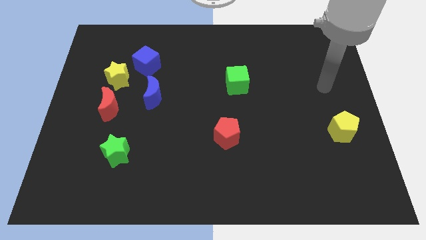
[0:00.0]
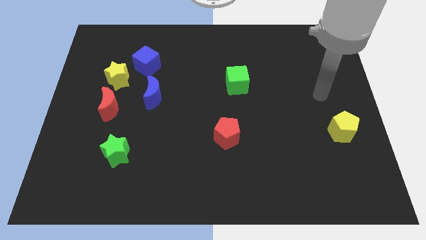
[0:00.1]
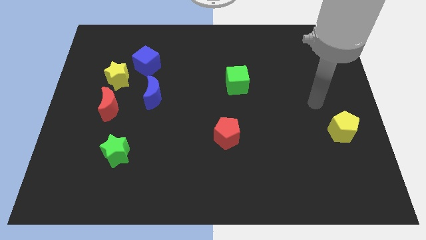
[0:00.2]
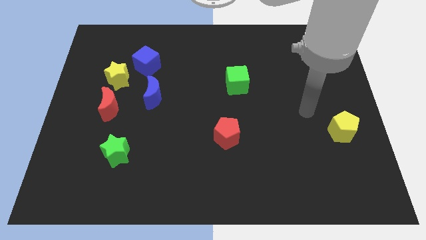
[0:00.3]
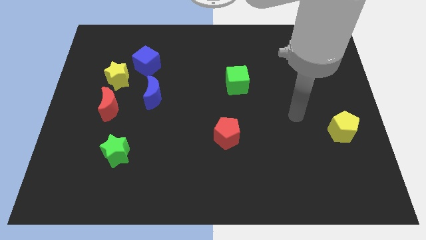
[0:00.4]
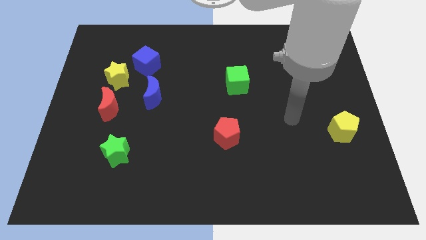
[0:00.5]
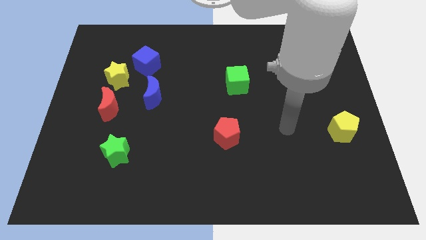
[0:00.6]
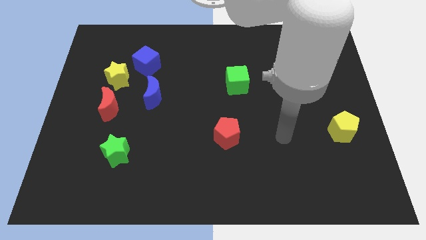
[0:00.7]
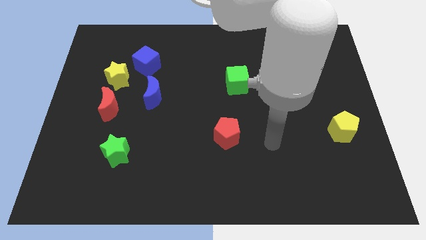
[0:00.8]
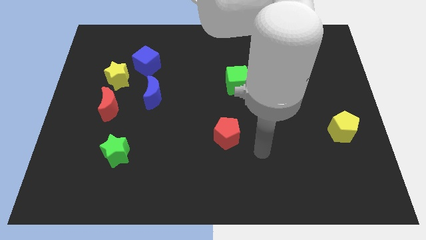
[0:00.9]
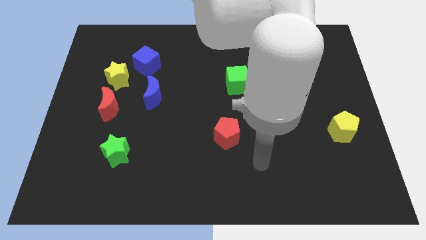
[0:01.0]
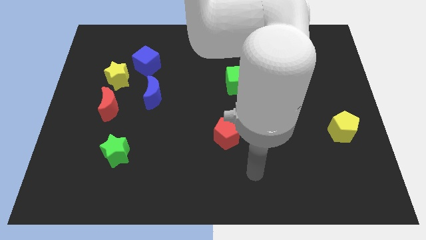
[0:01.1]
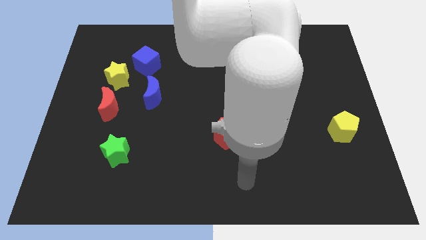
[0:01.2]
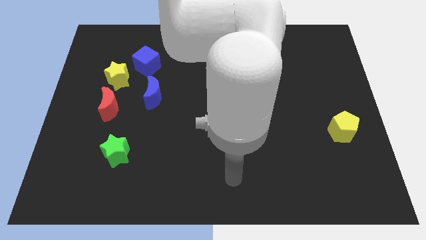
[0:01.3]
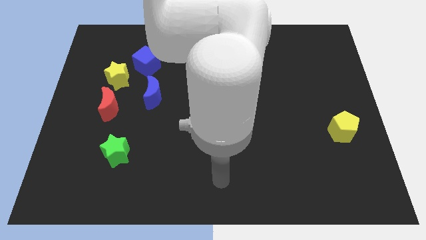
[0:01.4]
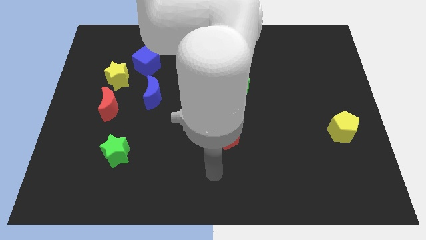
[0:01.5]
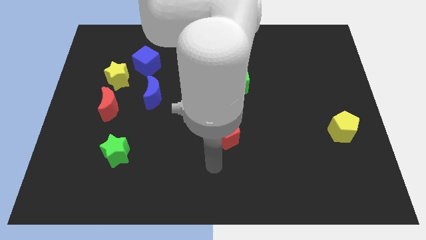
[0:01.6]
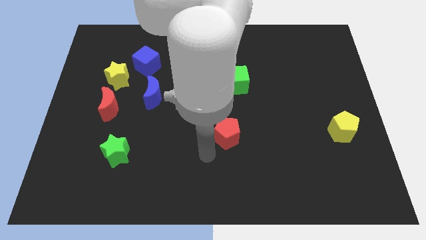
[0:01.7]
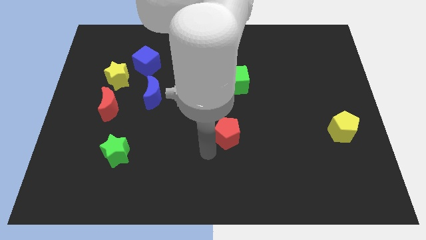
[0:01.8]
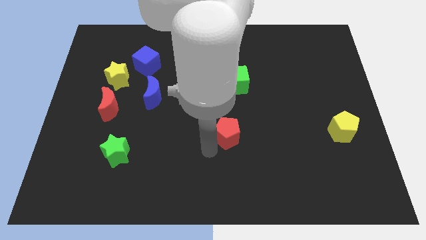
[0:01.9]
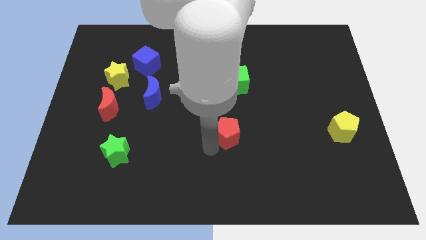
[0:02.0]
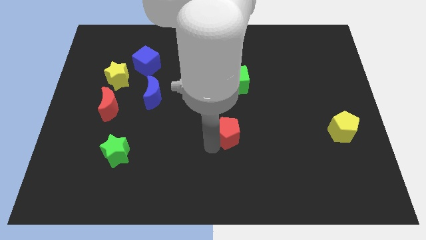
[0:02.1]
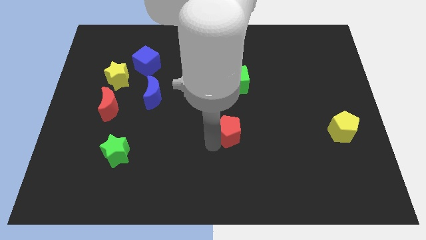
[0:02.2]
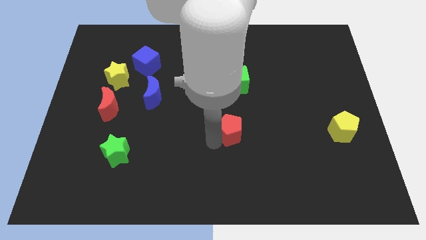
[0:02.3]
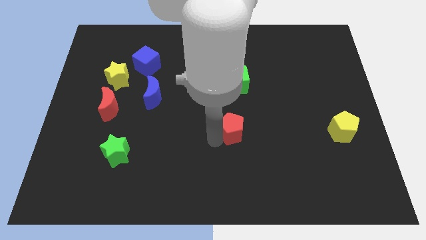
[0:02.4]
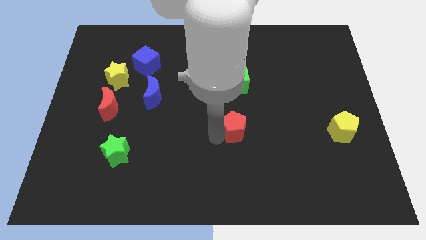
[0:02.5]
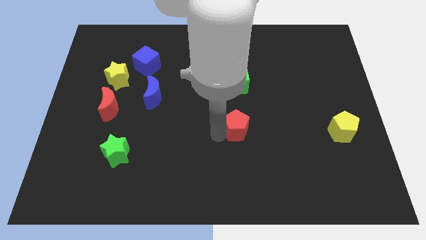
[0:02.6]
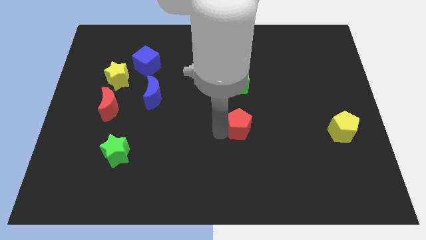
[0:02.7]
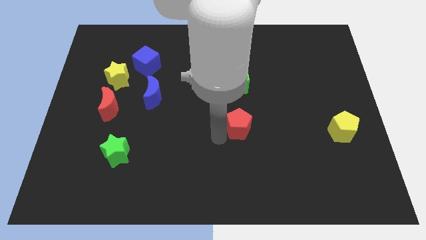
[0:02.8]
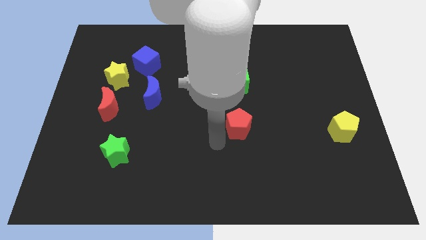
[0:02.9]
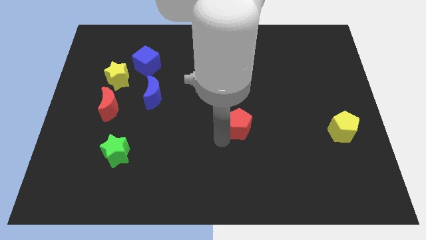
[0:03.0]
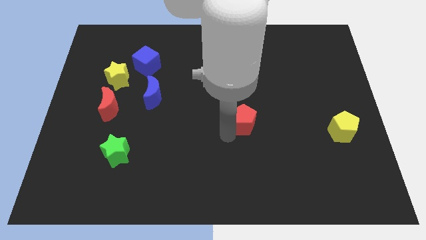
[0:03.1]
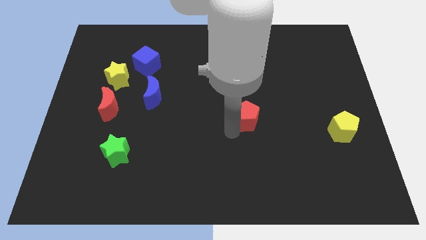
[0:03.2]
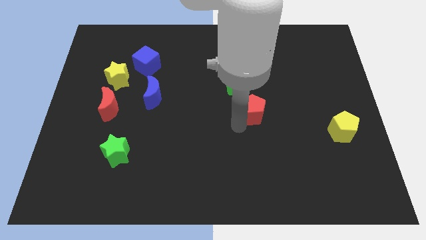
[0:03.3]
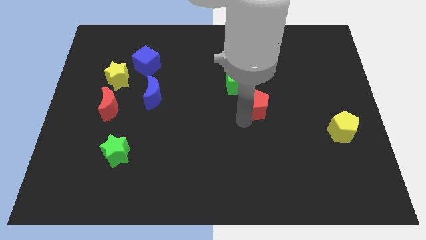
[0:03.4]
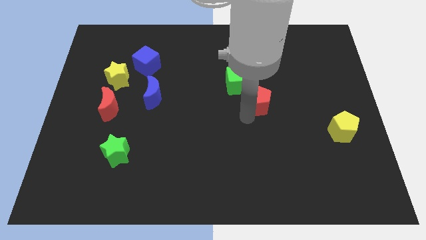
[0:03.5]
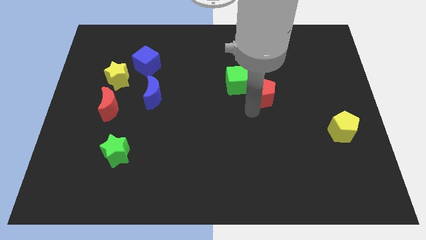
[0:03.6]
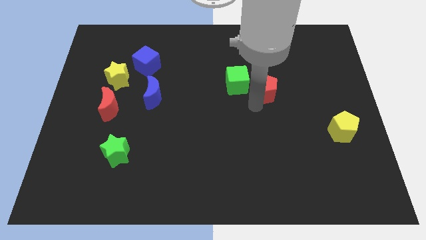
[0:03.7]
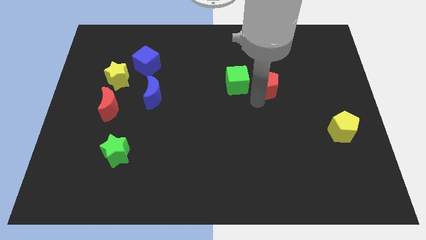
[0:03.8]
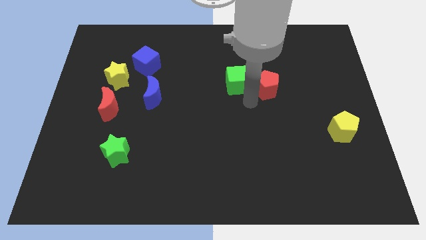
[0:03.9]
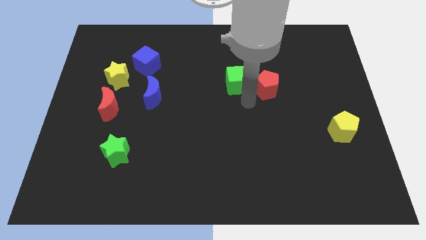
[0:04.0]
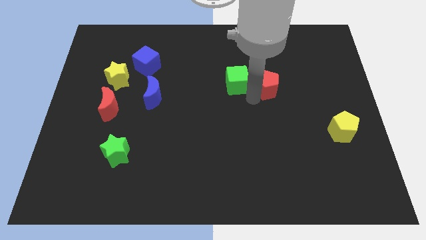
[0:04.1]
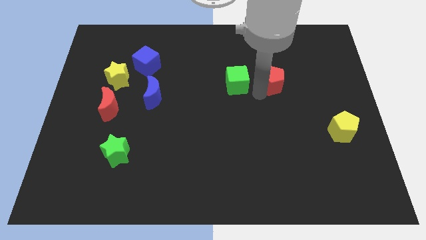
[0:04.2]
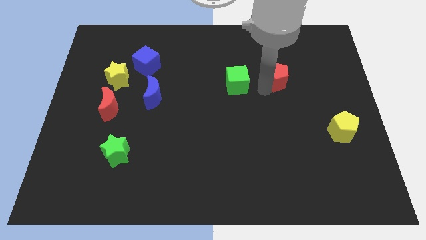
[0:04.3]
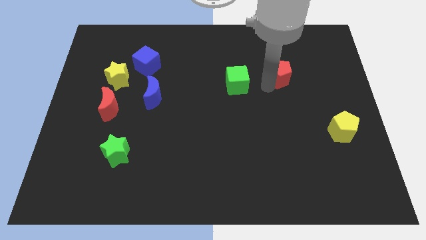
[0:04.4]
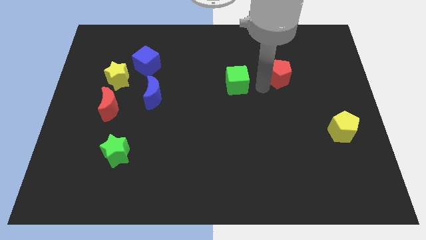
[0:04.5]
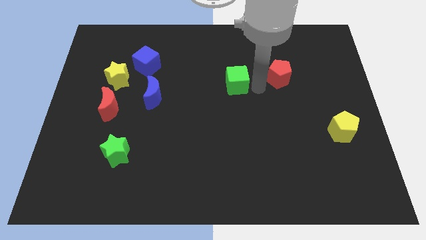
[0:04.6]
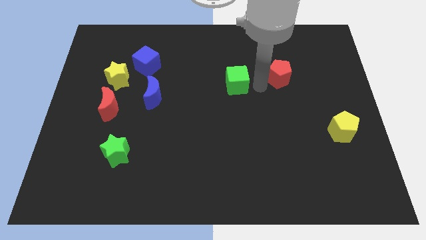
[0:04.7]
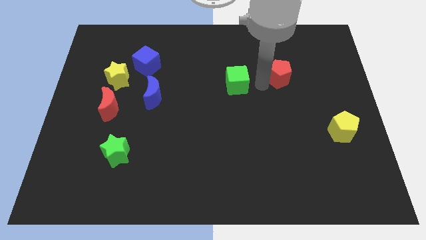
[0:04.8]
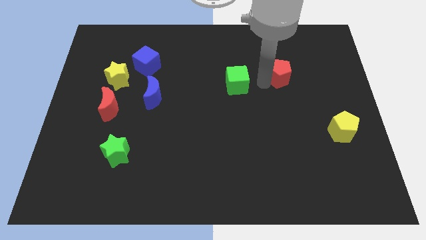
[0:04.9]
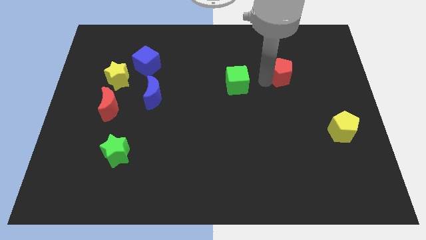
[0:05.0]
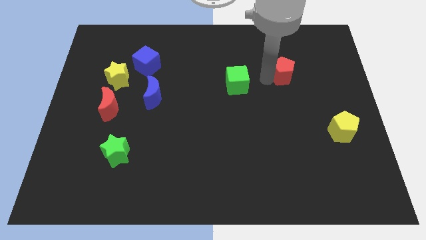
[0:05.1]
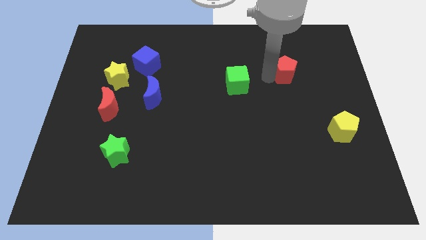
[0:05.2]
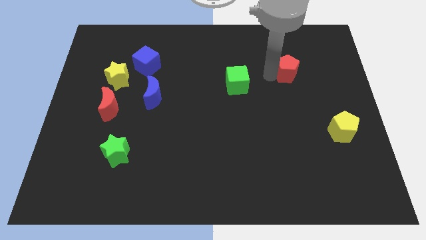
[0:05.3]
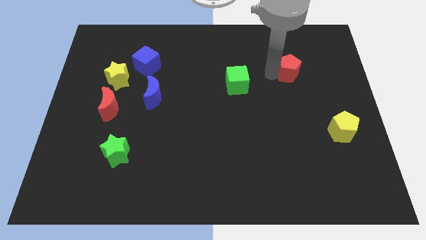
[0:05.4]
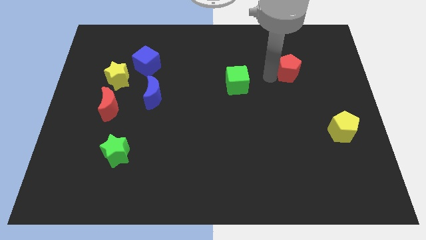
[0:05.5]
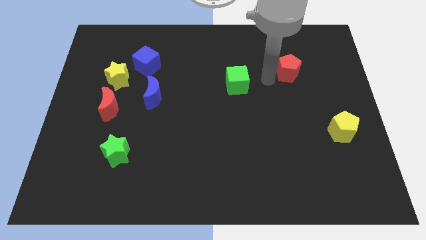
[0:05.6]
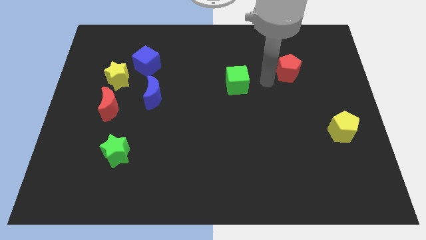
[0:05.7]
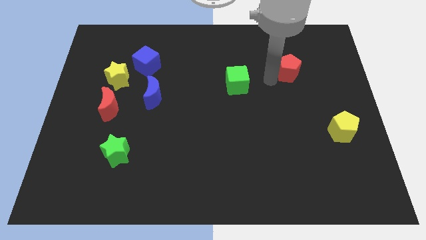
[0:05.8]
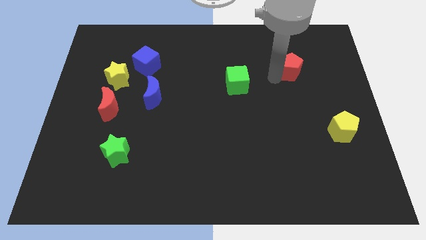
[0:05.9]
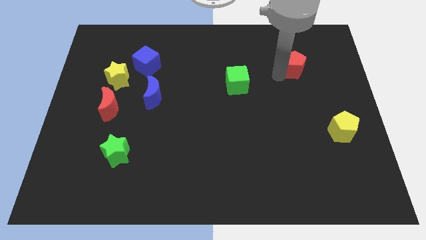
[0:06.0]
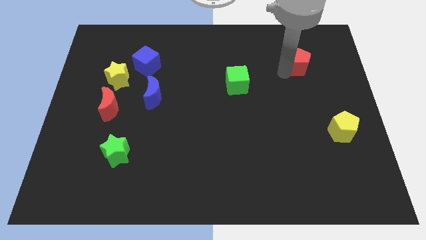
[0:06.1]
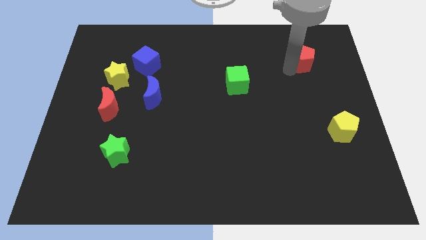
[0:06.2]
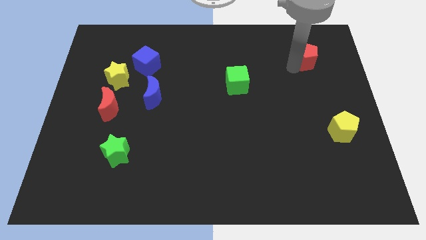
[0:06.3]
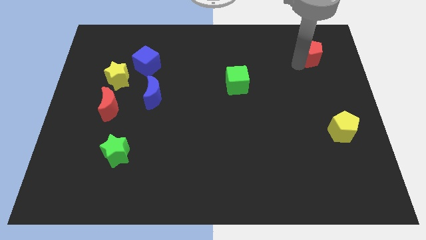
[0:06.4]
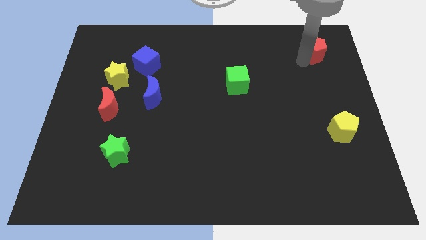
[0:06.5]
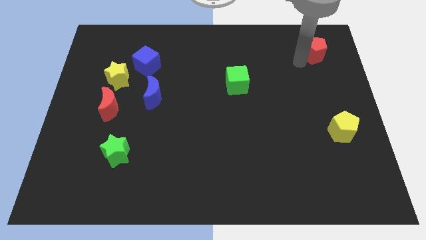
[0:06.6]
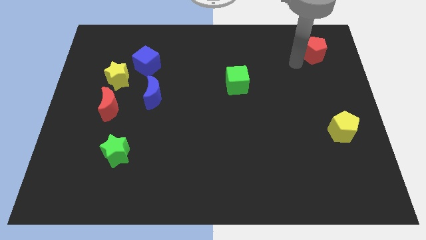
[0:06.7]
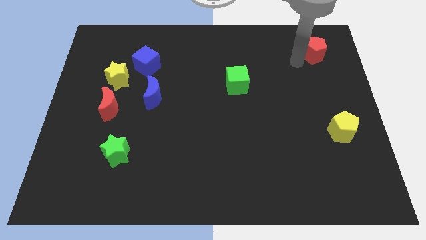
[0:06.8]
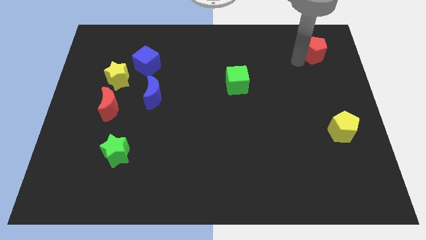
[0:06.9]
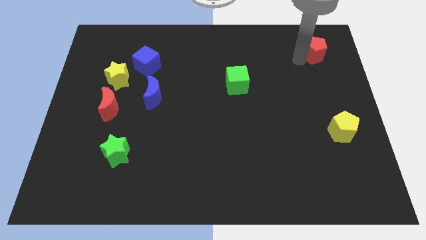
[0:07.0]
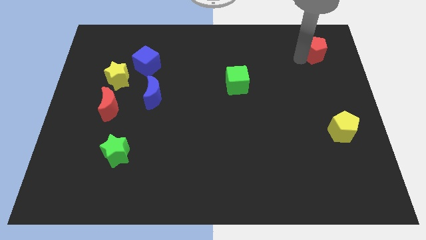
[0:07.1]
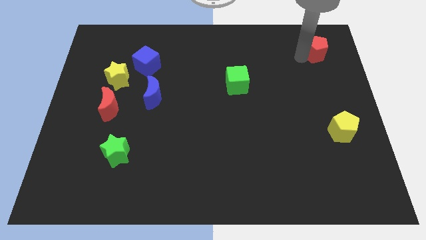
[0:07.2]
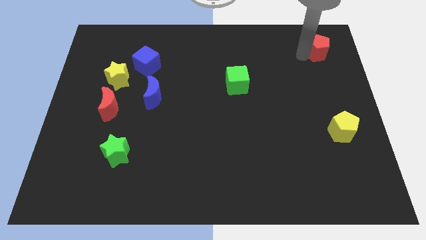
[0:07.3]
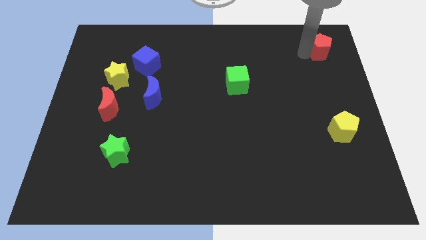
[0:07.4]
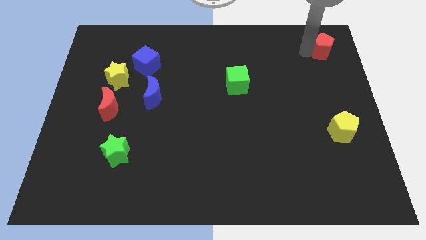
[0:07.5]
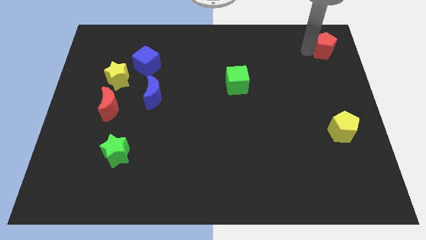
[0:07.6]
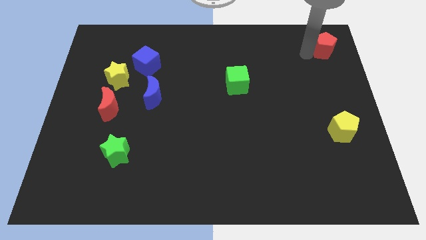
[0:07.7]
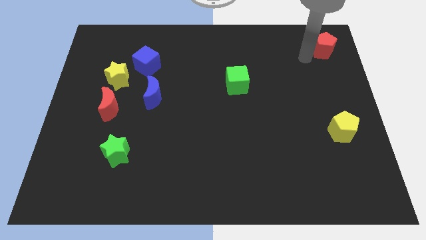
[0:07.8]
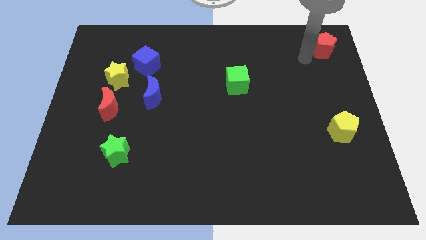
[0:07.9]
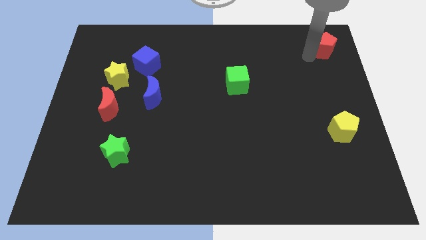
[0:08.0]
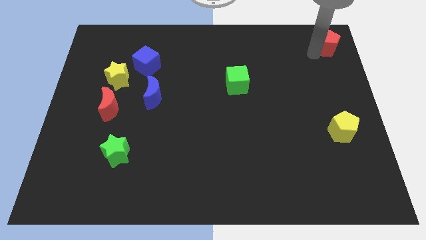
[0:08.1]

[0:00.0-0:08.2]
put the red pentagon to the top right of the board
